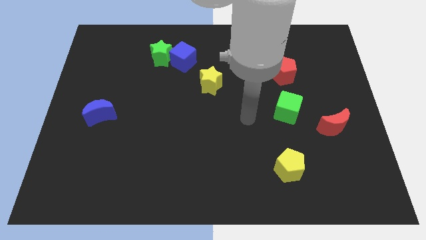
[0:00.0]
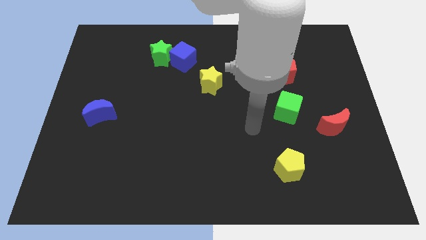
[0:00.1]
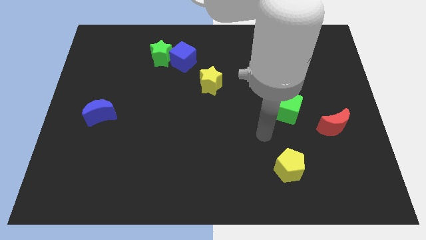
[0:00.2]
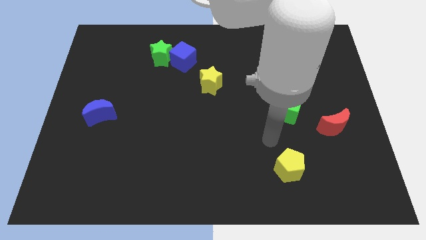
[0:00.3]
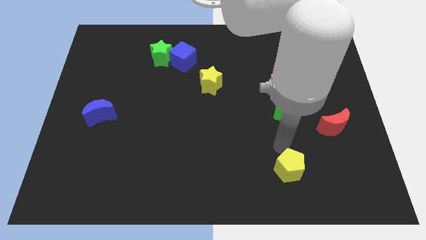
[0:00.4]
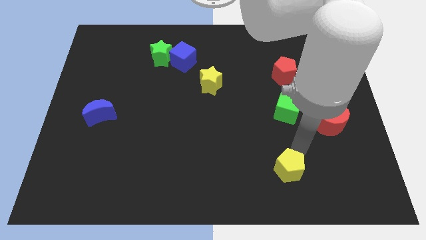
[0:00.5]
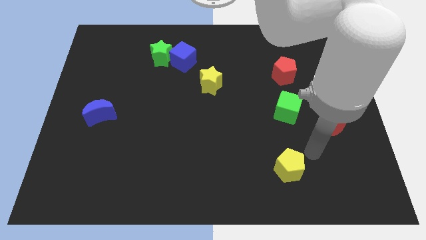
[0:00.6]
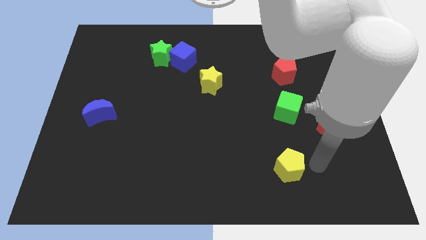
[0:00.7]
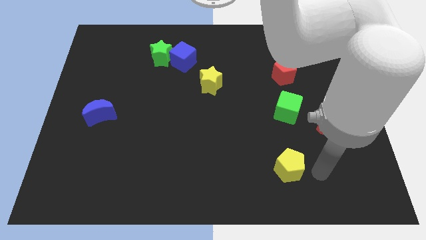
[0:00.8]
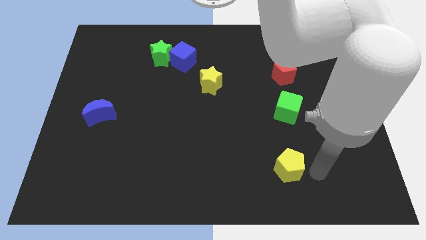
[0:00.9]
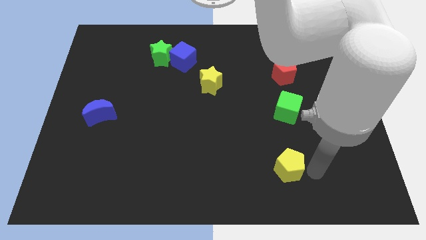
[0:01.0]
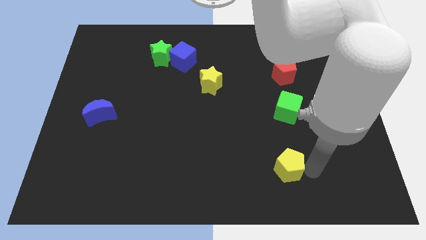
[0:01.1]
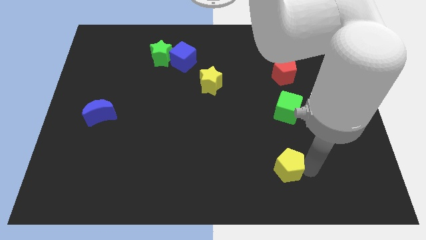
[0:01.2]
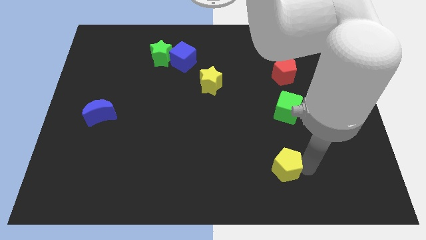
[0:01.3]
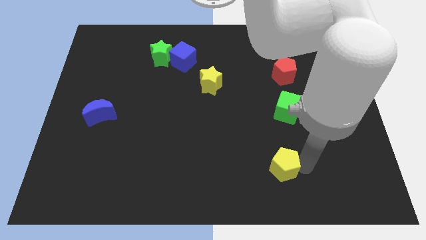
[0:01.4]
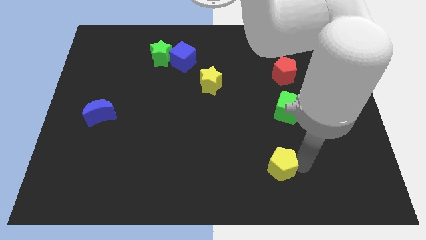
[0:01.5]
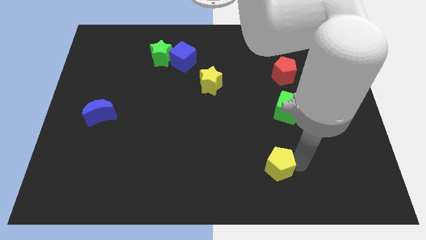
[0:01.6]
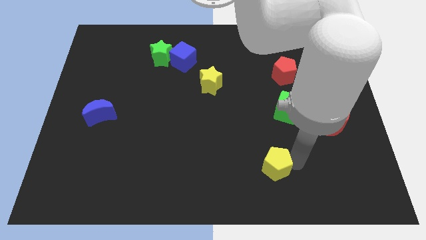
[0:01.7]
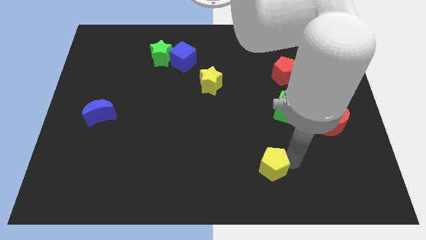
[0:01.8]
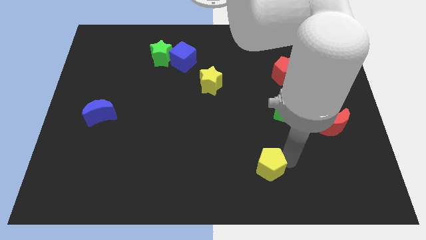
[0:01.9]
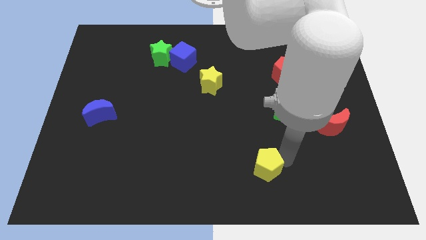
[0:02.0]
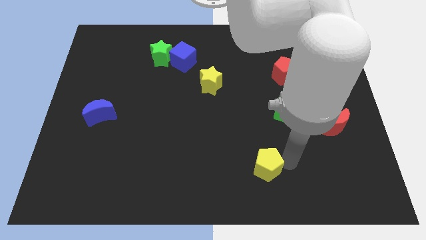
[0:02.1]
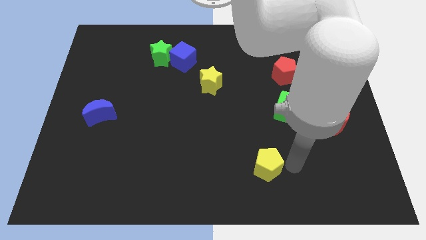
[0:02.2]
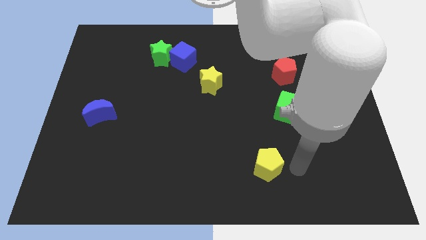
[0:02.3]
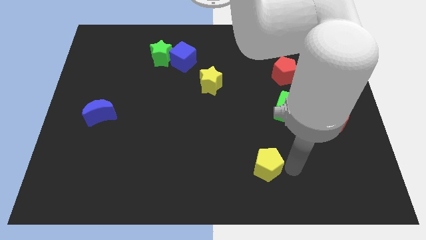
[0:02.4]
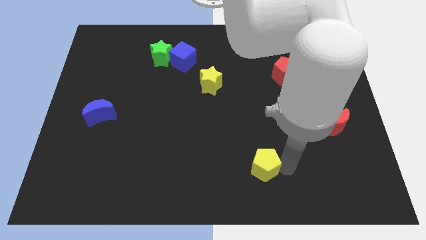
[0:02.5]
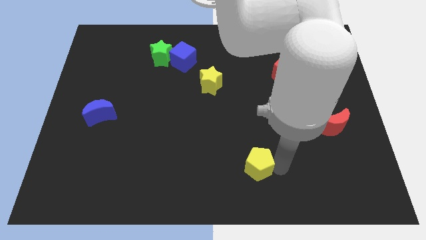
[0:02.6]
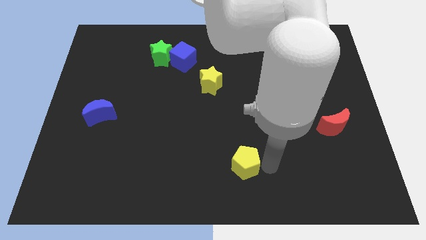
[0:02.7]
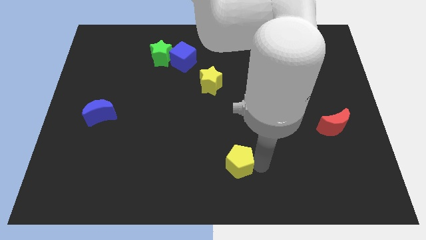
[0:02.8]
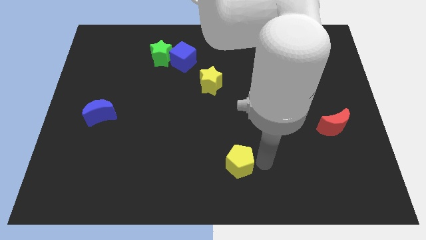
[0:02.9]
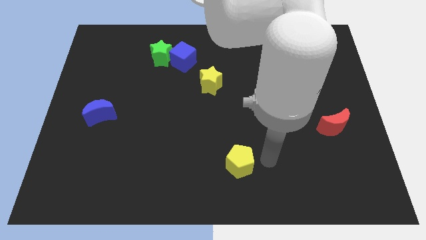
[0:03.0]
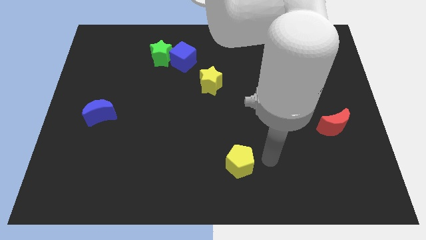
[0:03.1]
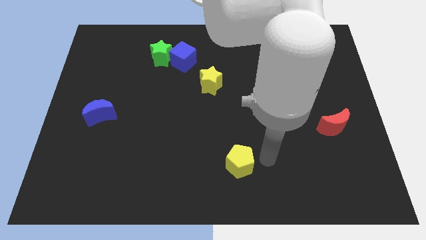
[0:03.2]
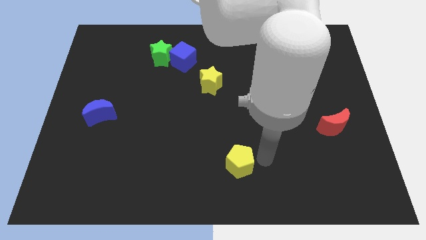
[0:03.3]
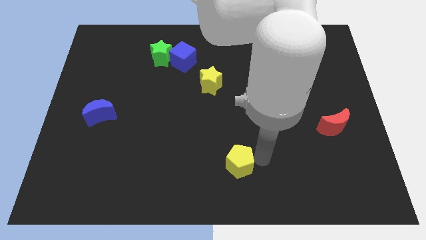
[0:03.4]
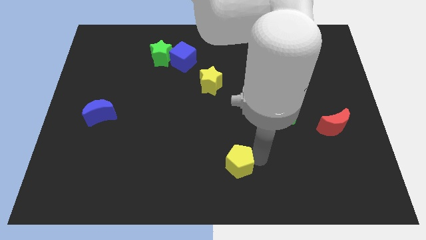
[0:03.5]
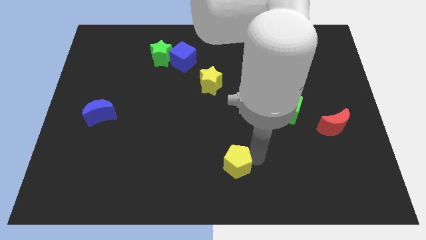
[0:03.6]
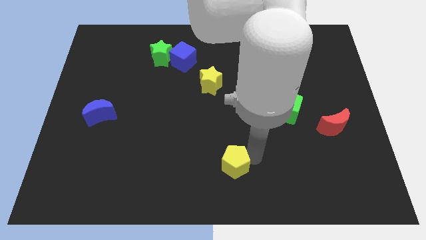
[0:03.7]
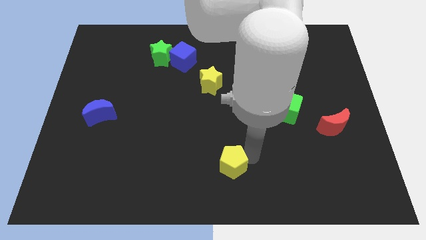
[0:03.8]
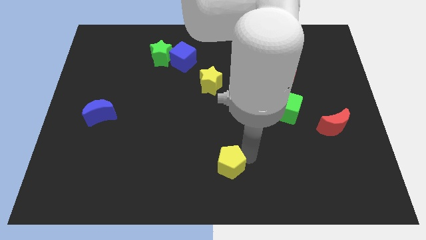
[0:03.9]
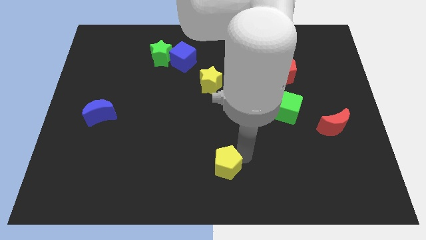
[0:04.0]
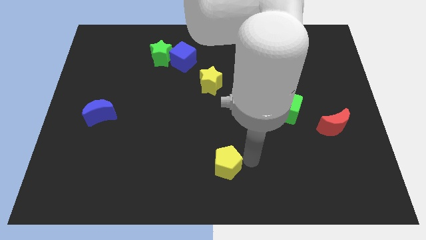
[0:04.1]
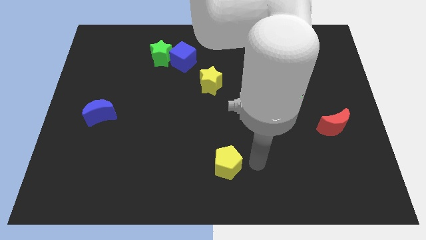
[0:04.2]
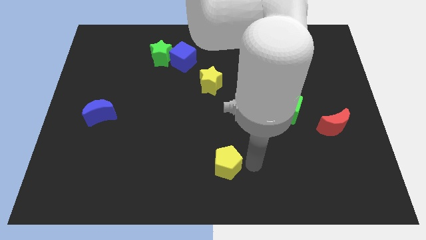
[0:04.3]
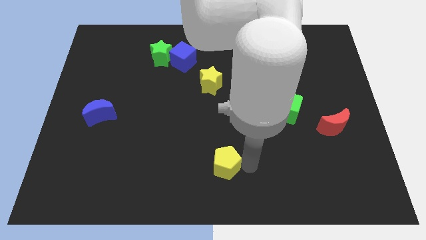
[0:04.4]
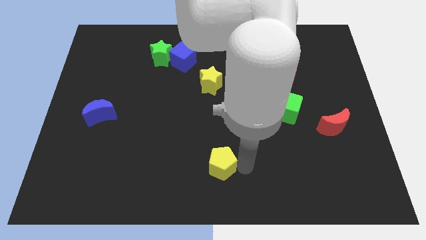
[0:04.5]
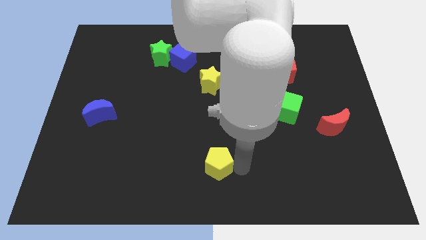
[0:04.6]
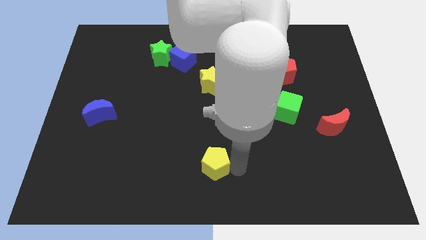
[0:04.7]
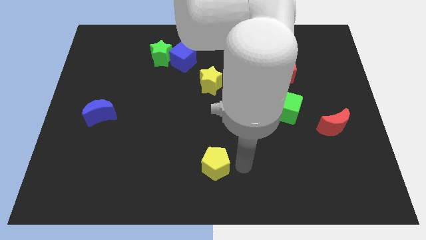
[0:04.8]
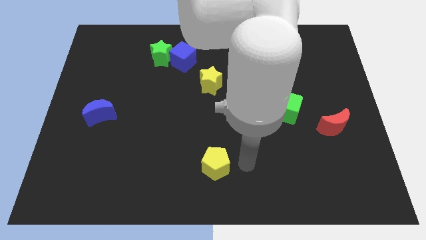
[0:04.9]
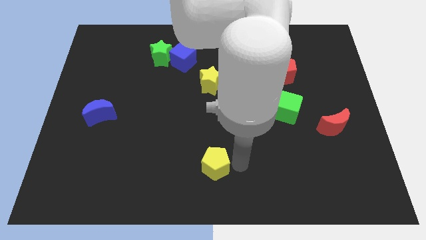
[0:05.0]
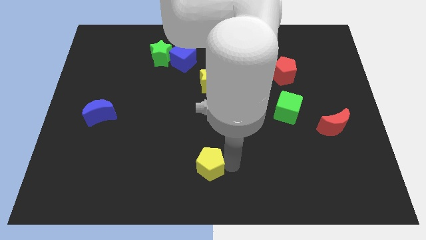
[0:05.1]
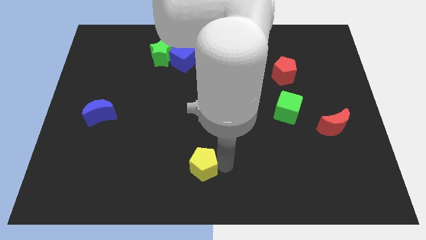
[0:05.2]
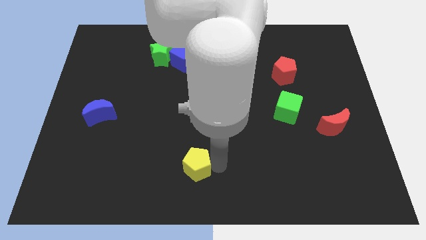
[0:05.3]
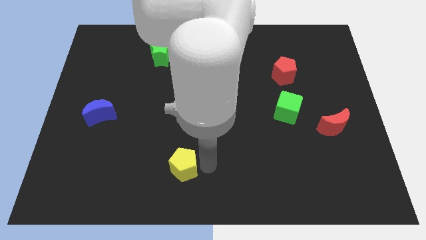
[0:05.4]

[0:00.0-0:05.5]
slide the yellow pentagon to the left

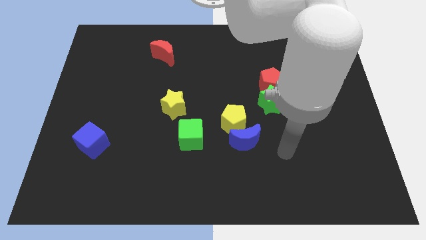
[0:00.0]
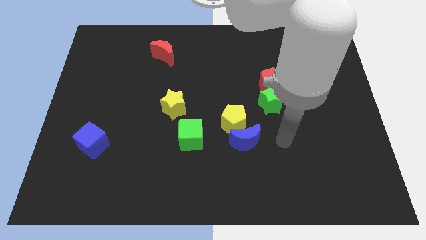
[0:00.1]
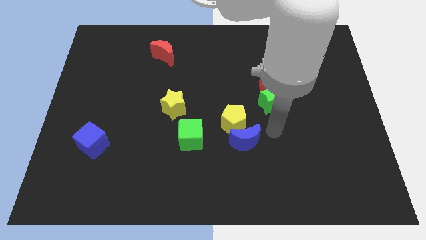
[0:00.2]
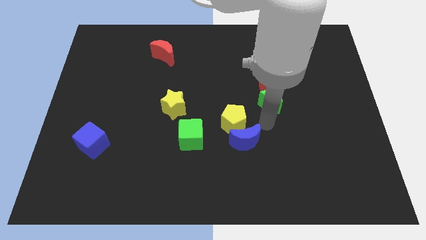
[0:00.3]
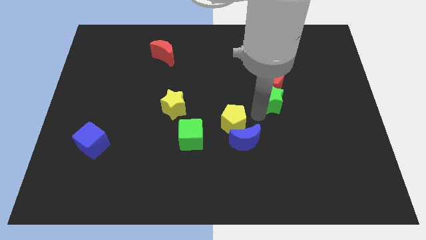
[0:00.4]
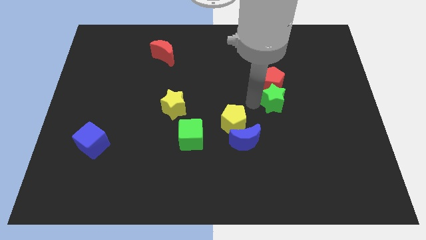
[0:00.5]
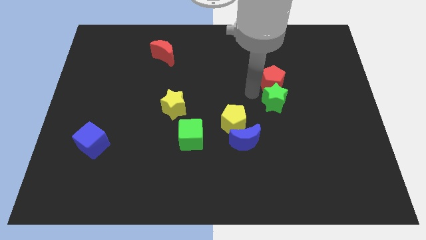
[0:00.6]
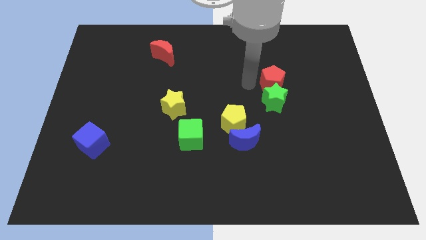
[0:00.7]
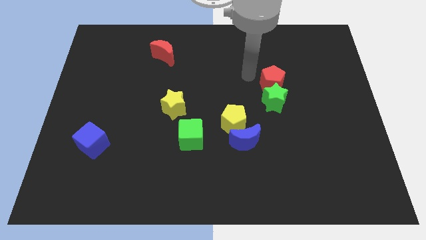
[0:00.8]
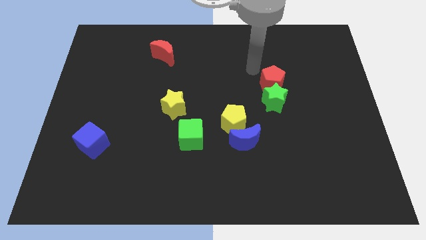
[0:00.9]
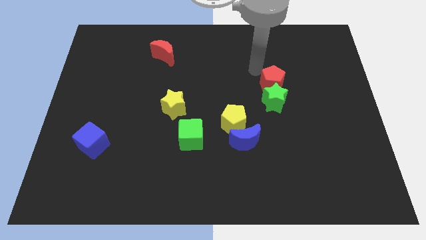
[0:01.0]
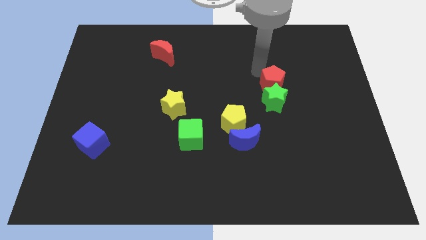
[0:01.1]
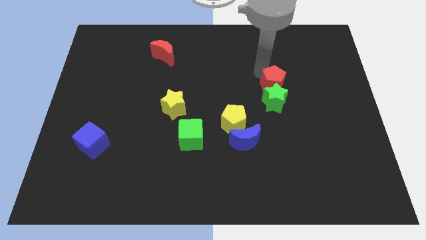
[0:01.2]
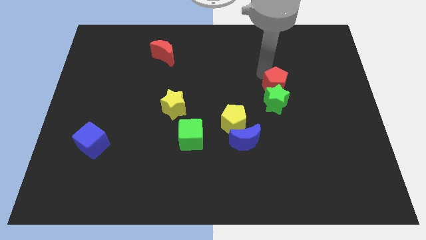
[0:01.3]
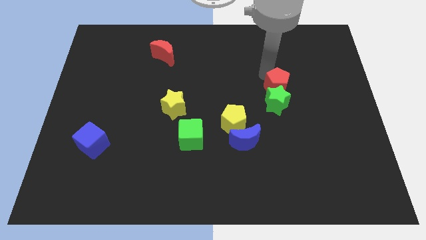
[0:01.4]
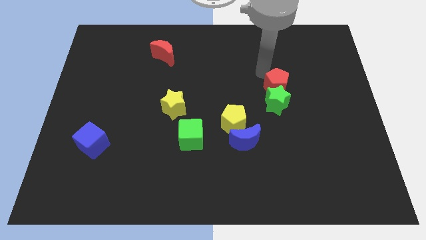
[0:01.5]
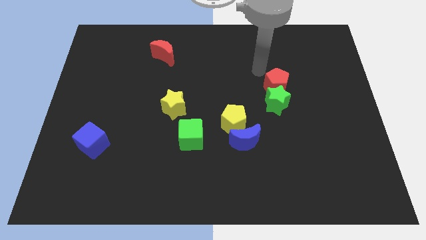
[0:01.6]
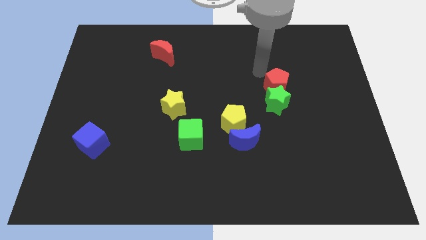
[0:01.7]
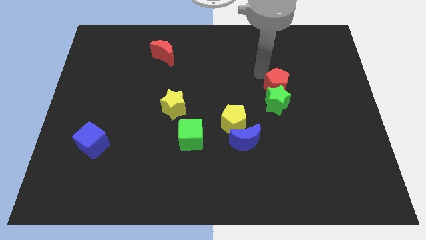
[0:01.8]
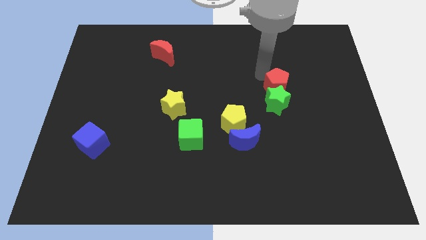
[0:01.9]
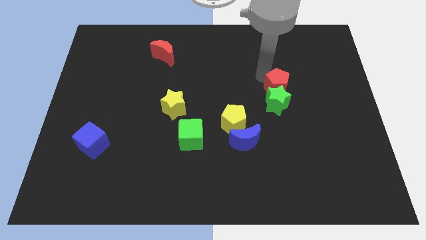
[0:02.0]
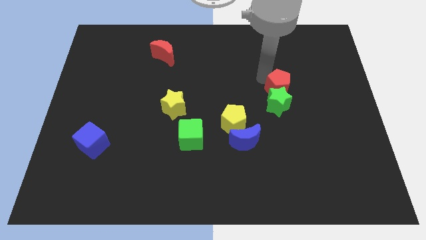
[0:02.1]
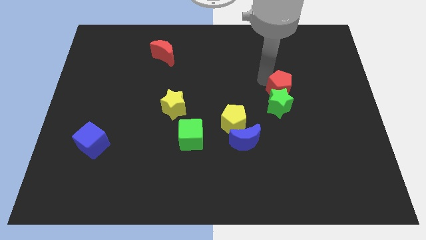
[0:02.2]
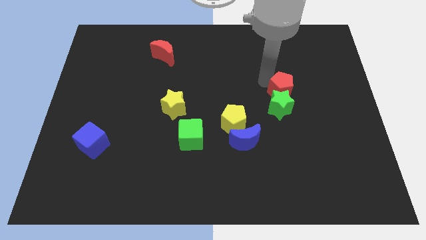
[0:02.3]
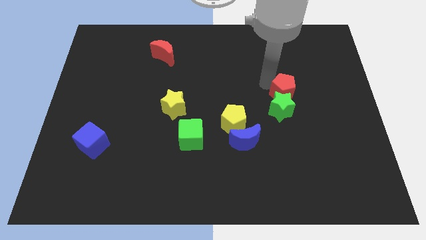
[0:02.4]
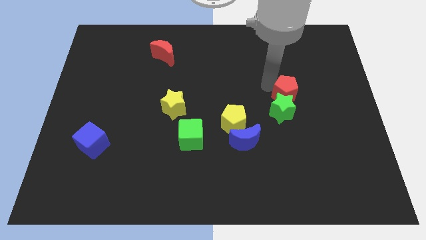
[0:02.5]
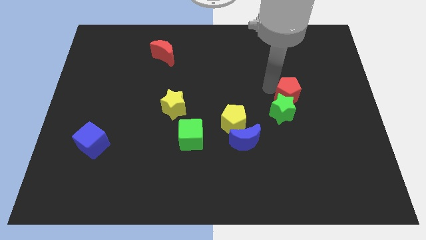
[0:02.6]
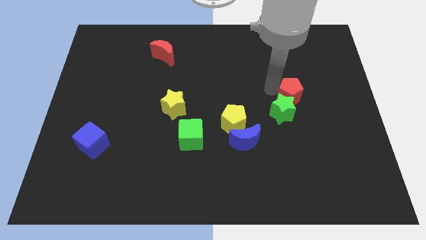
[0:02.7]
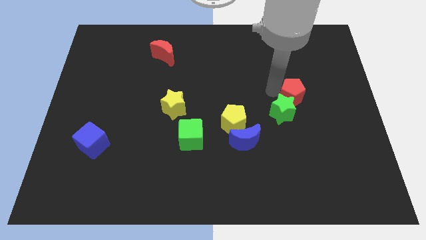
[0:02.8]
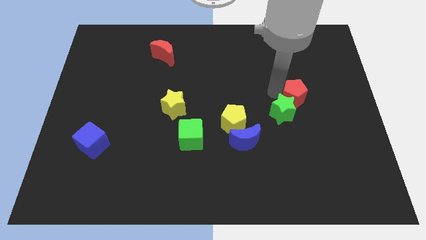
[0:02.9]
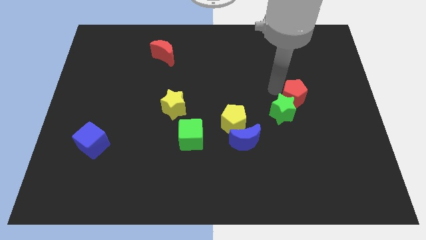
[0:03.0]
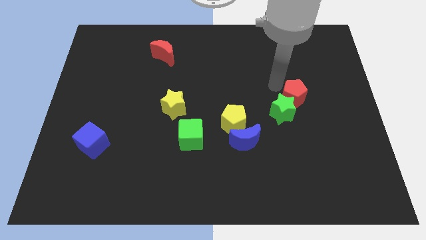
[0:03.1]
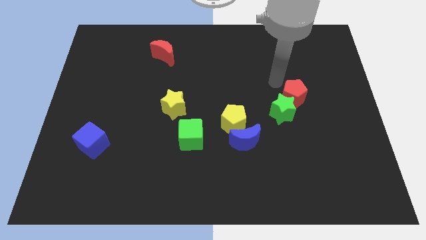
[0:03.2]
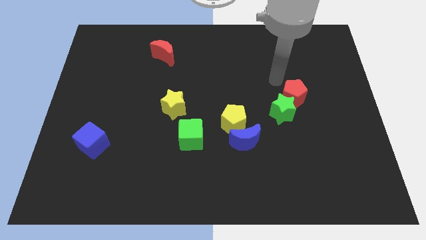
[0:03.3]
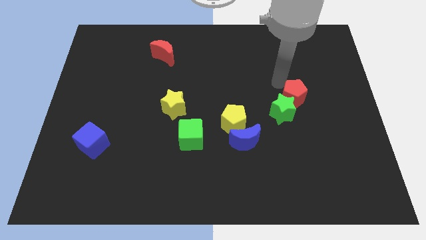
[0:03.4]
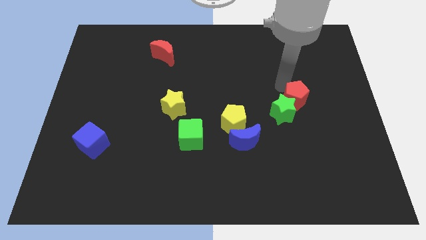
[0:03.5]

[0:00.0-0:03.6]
slide the red pentagon slightly down and to the right diagonally
